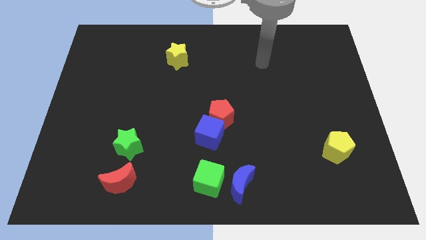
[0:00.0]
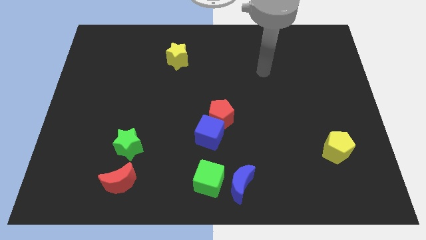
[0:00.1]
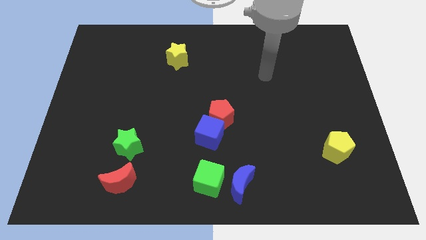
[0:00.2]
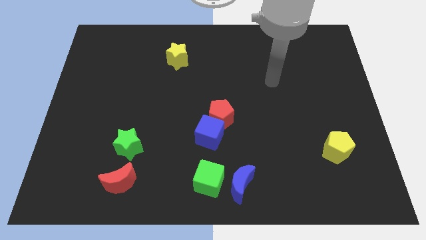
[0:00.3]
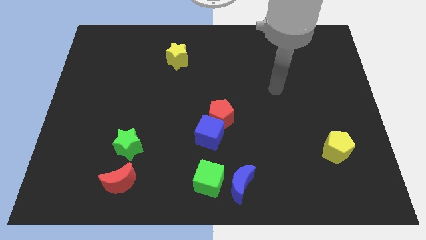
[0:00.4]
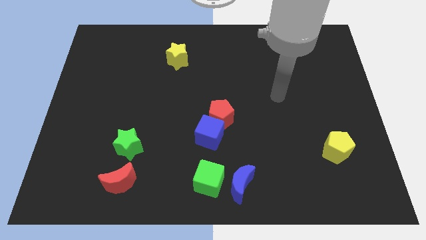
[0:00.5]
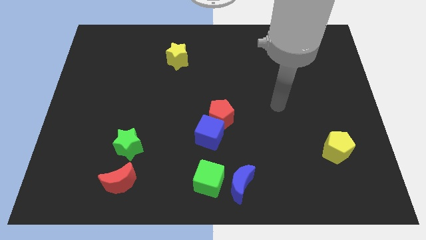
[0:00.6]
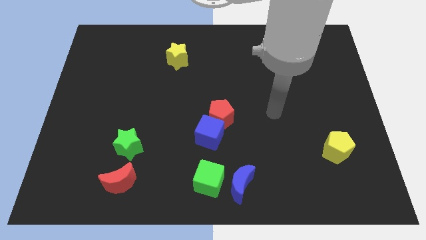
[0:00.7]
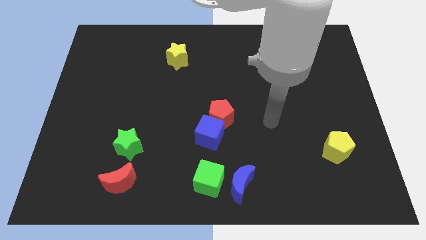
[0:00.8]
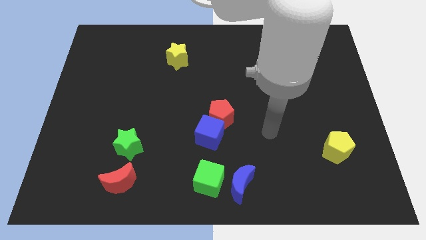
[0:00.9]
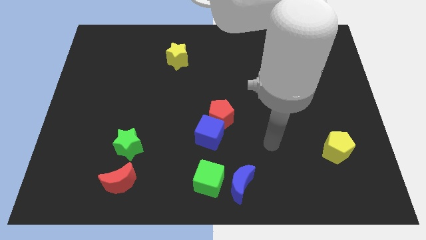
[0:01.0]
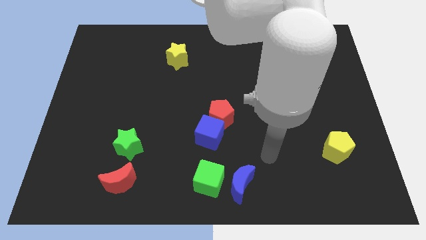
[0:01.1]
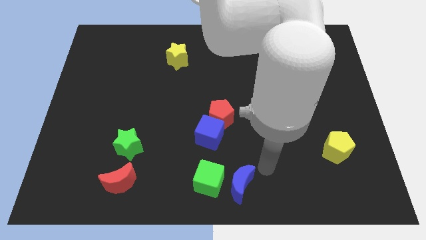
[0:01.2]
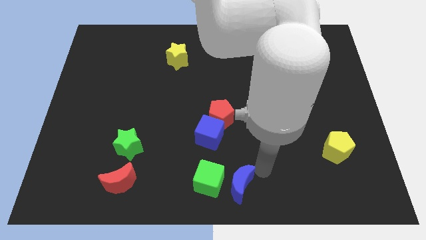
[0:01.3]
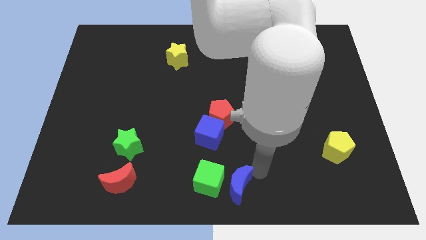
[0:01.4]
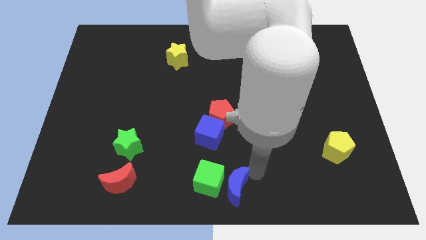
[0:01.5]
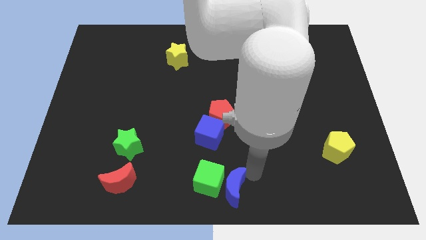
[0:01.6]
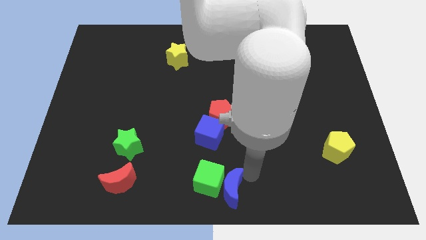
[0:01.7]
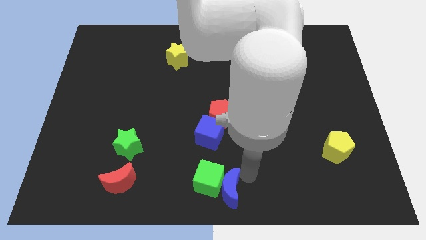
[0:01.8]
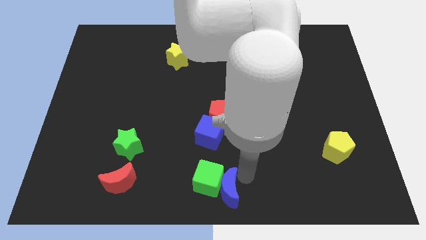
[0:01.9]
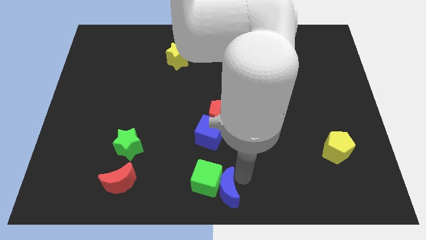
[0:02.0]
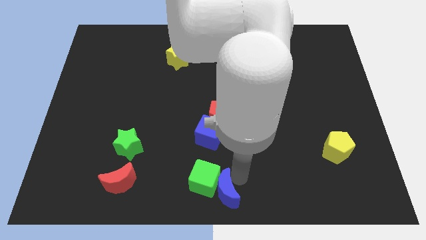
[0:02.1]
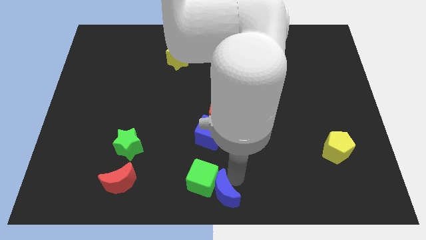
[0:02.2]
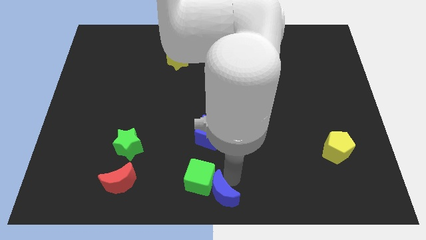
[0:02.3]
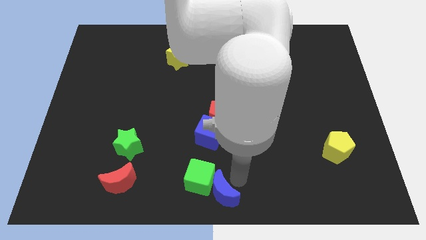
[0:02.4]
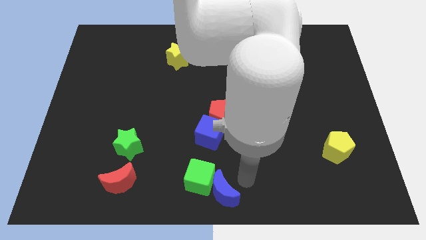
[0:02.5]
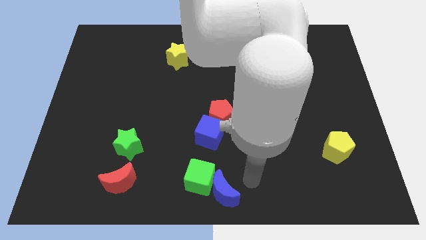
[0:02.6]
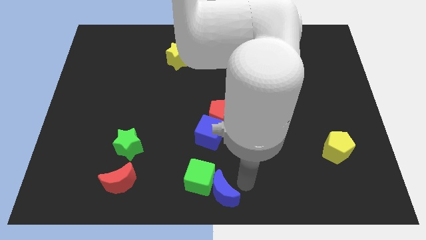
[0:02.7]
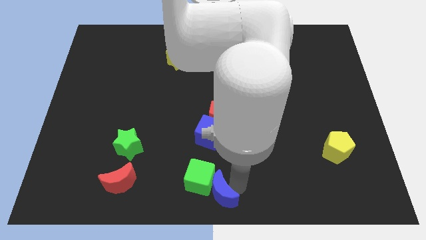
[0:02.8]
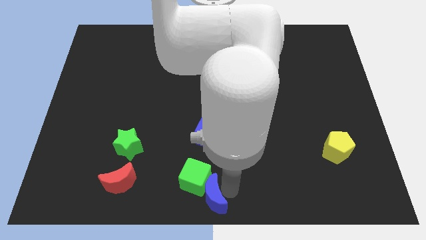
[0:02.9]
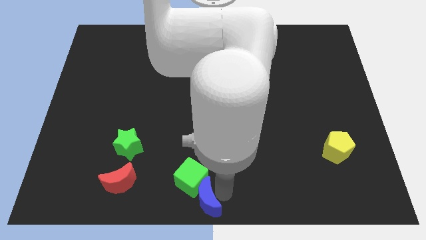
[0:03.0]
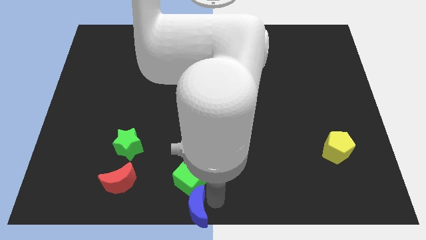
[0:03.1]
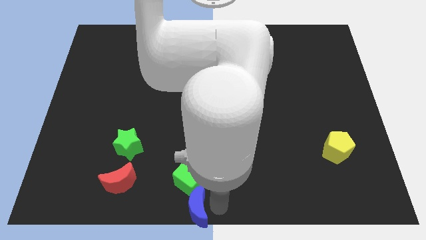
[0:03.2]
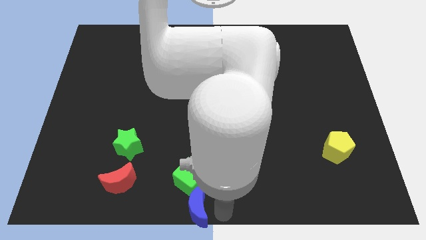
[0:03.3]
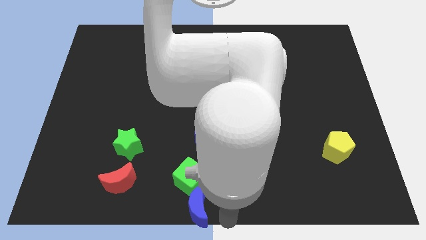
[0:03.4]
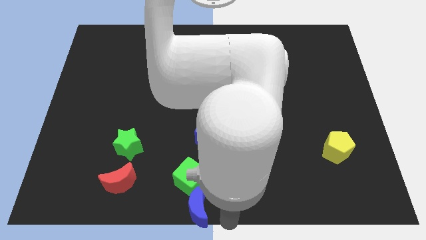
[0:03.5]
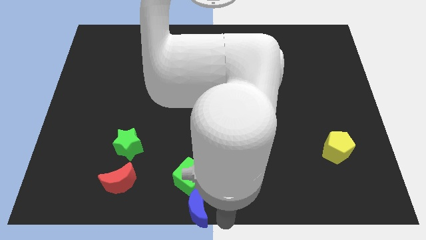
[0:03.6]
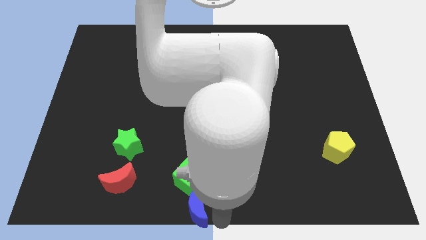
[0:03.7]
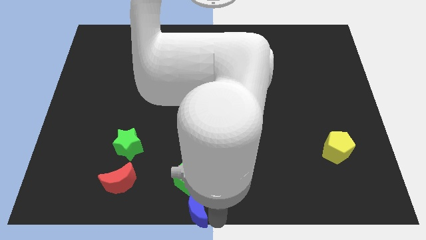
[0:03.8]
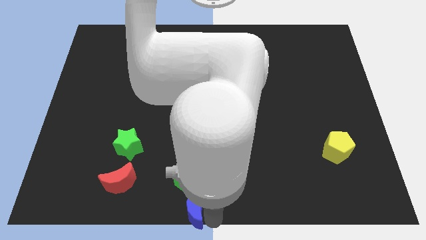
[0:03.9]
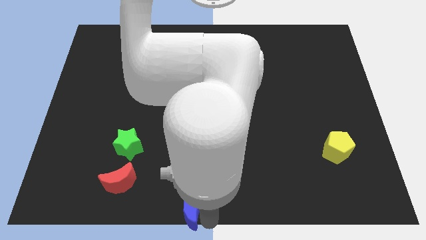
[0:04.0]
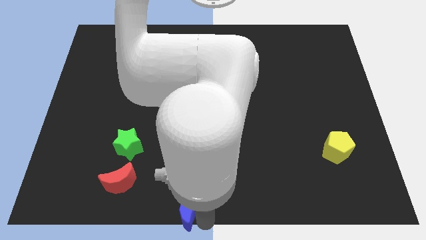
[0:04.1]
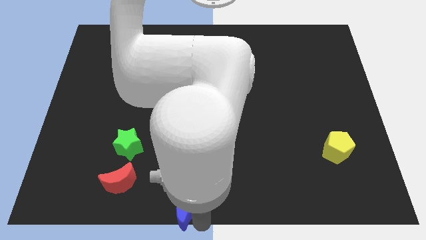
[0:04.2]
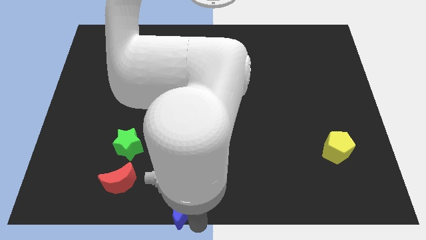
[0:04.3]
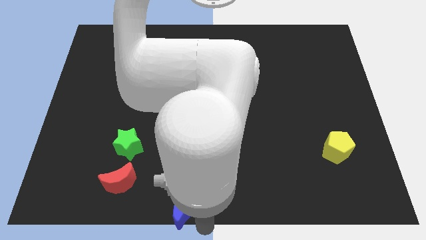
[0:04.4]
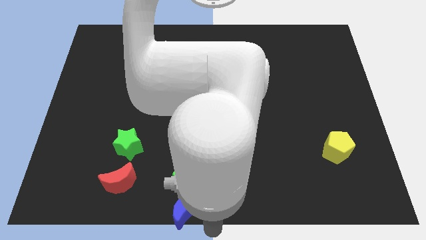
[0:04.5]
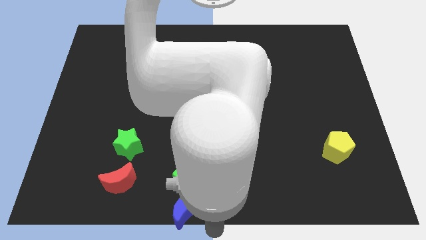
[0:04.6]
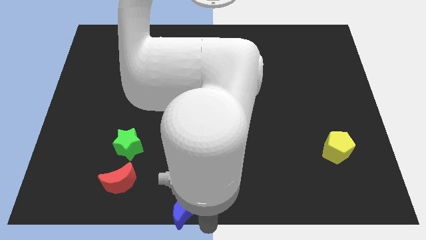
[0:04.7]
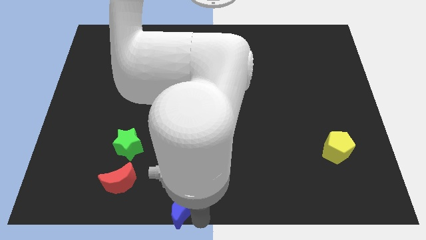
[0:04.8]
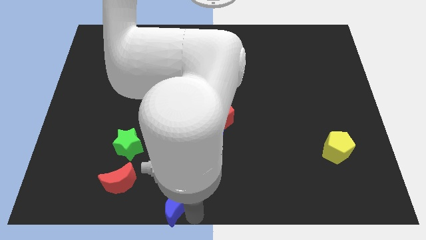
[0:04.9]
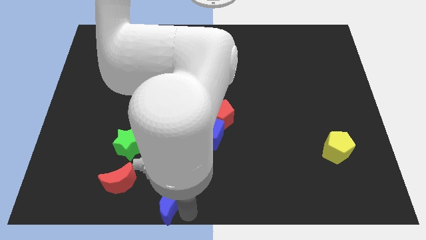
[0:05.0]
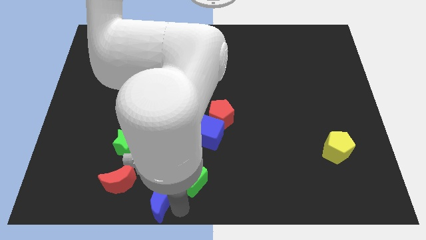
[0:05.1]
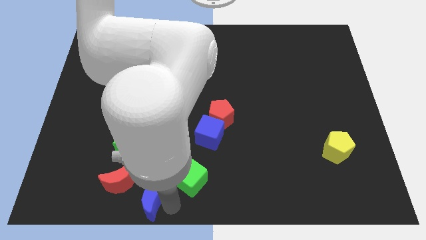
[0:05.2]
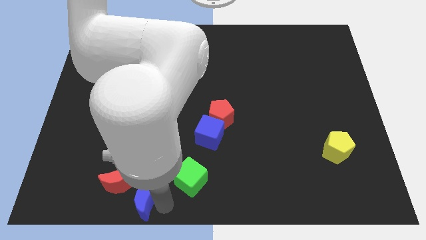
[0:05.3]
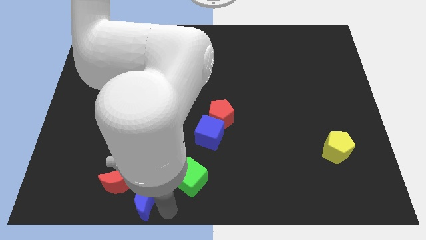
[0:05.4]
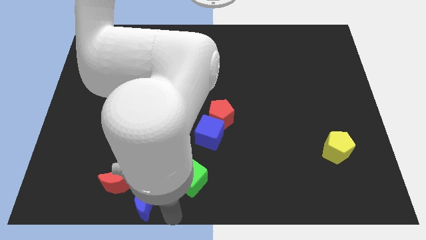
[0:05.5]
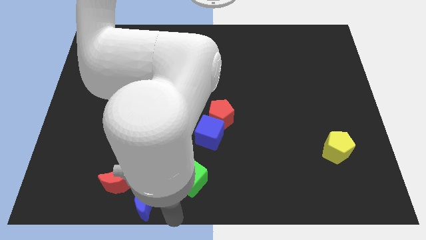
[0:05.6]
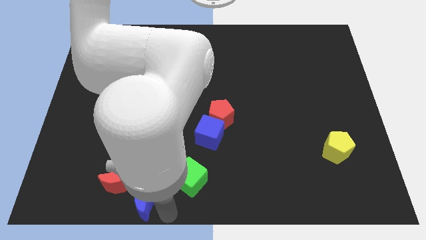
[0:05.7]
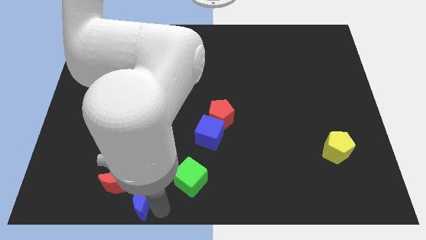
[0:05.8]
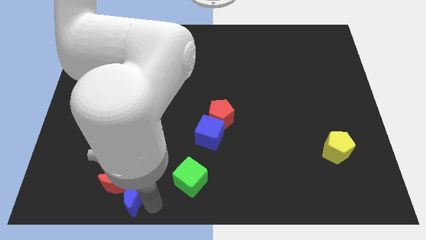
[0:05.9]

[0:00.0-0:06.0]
push the blue moon next to the red moon

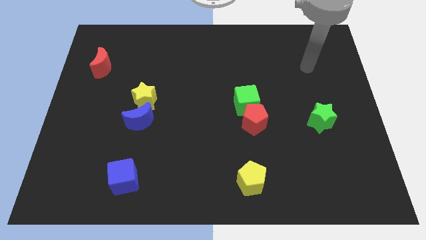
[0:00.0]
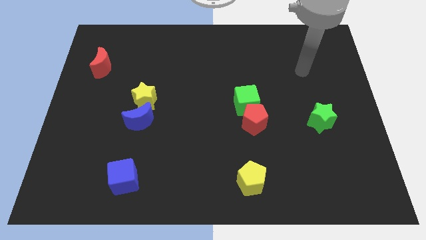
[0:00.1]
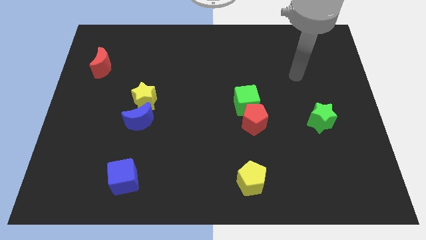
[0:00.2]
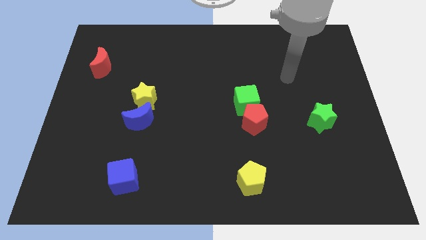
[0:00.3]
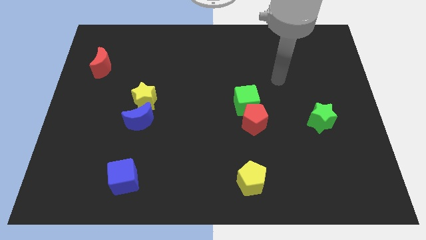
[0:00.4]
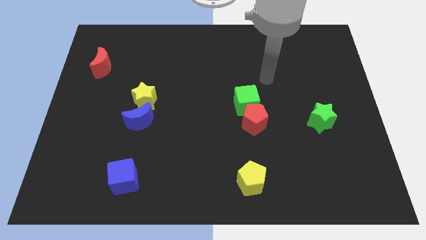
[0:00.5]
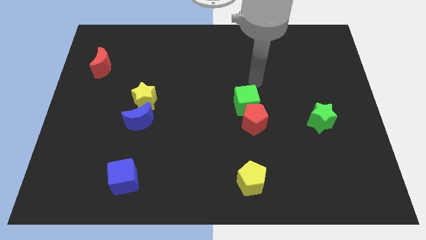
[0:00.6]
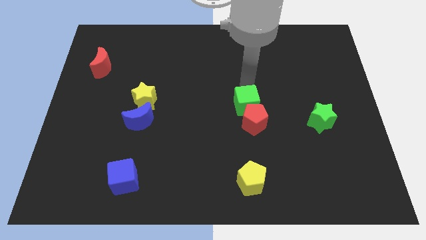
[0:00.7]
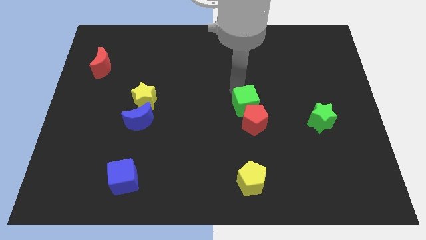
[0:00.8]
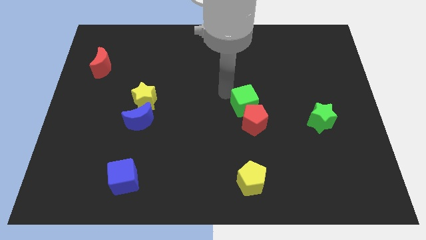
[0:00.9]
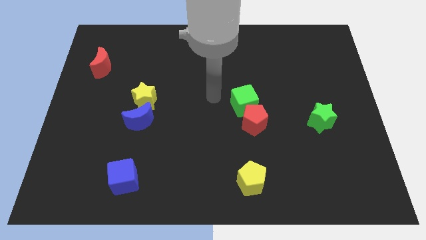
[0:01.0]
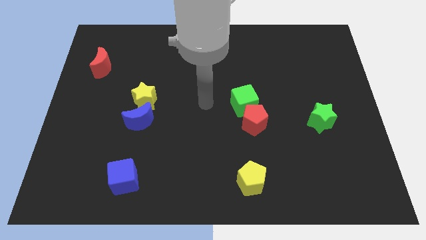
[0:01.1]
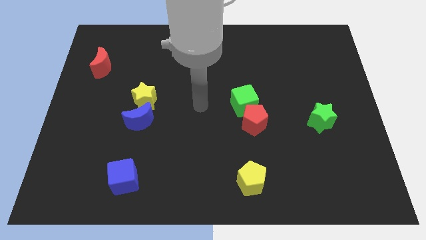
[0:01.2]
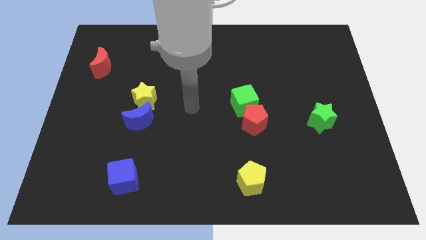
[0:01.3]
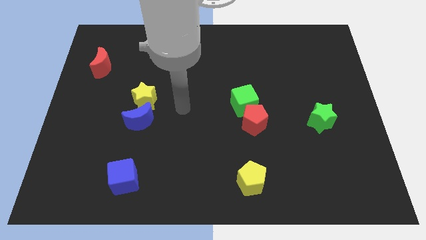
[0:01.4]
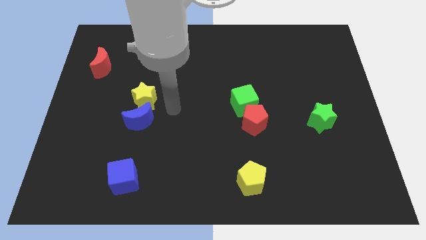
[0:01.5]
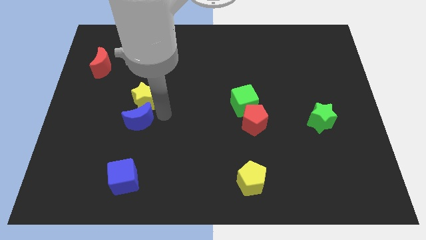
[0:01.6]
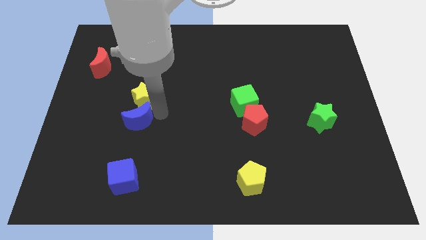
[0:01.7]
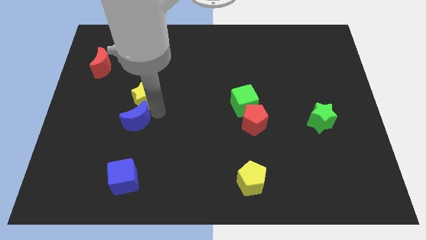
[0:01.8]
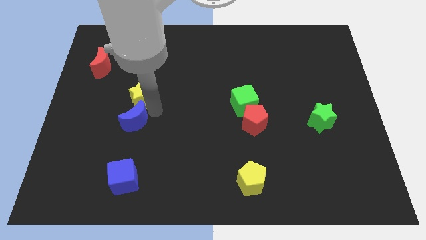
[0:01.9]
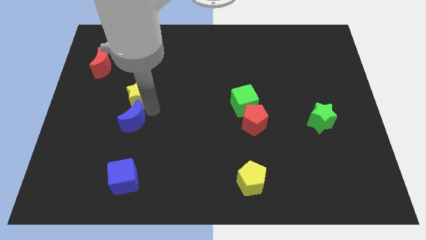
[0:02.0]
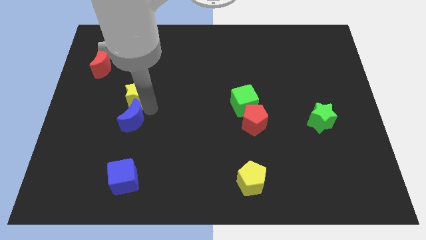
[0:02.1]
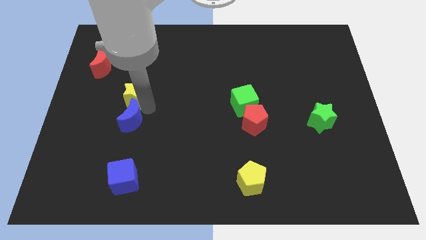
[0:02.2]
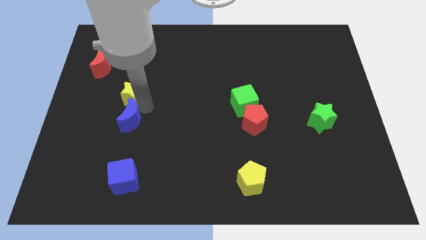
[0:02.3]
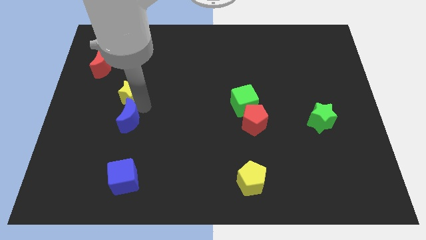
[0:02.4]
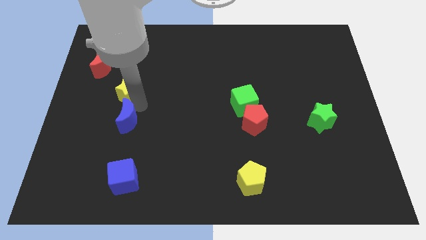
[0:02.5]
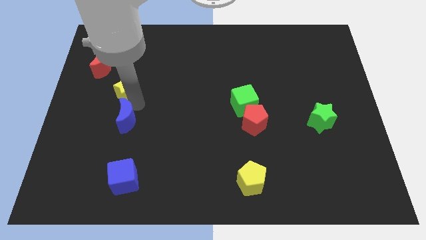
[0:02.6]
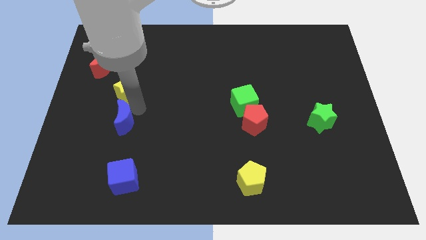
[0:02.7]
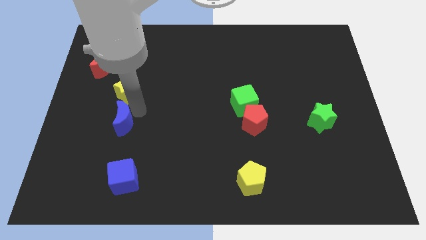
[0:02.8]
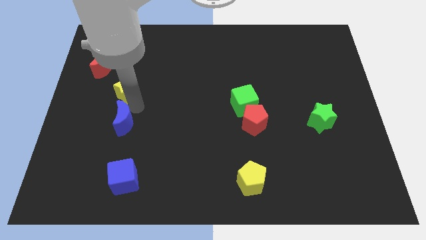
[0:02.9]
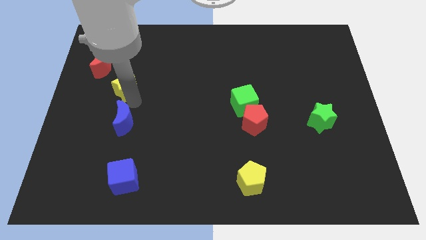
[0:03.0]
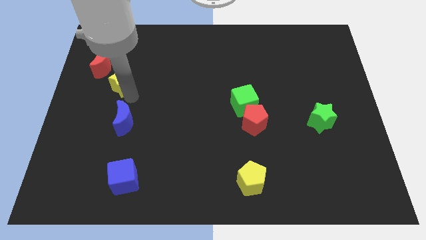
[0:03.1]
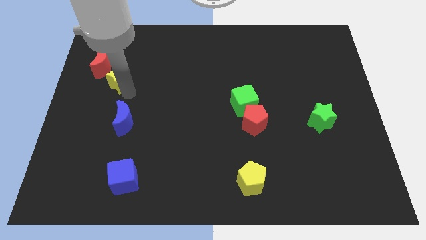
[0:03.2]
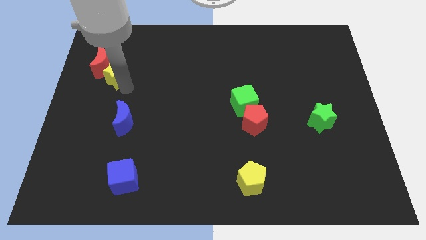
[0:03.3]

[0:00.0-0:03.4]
slide the yellow star to the red moon
